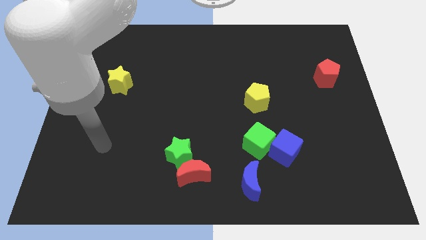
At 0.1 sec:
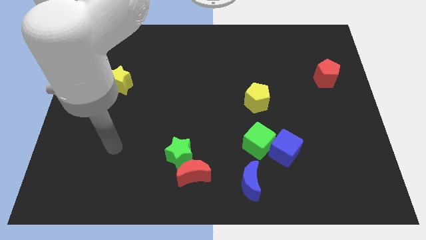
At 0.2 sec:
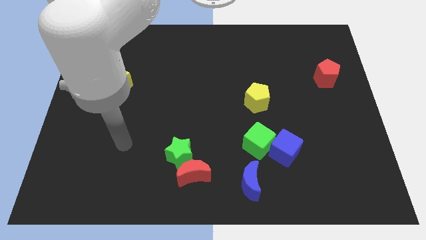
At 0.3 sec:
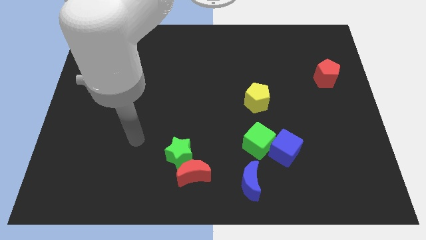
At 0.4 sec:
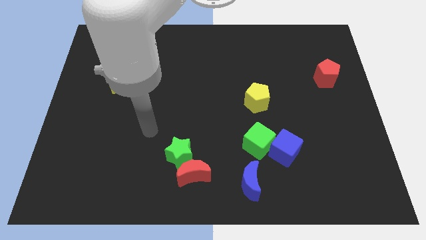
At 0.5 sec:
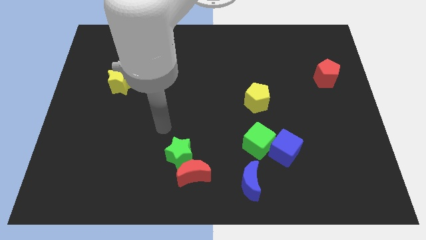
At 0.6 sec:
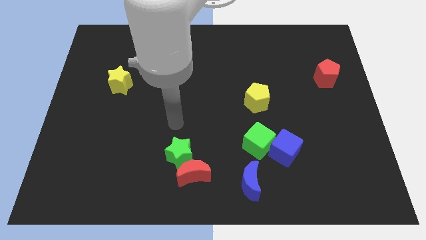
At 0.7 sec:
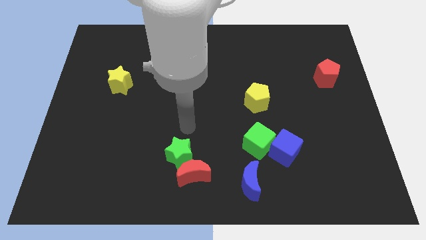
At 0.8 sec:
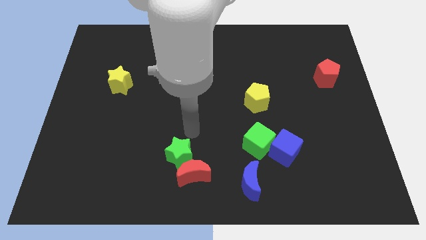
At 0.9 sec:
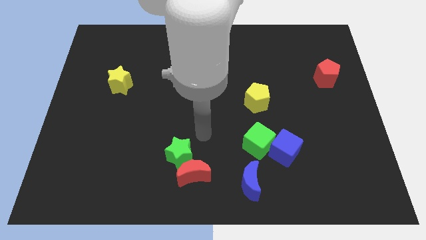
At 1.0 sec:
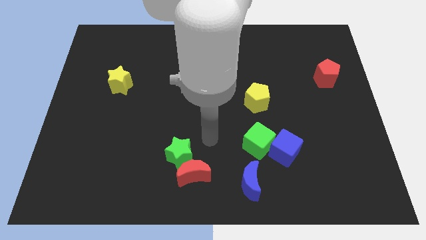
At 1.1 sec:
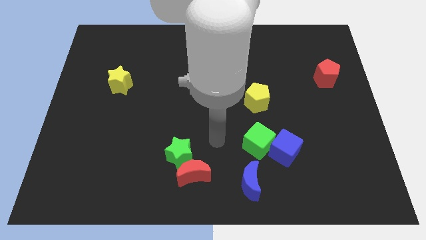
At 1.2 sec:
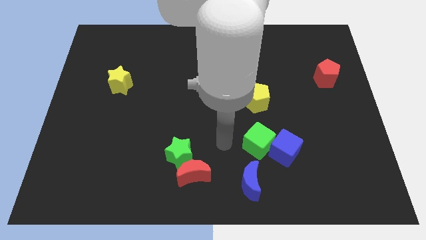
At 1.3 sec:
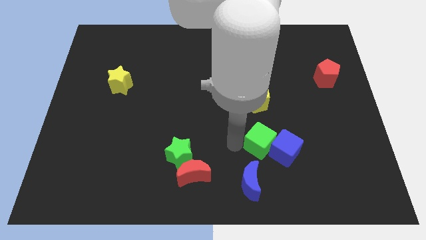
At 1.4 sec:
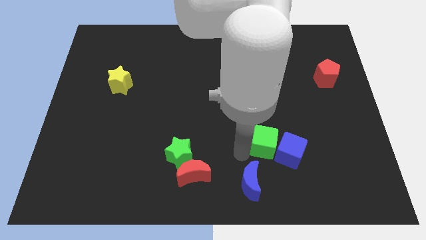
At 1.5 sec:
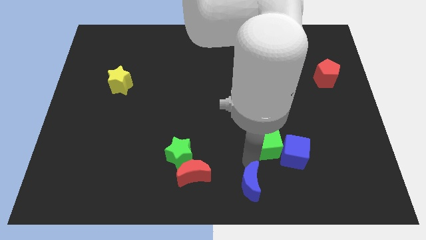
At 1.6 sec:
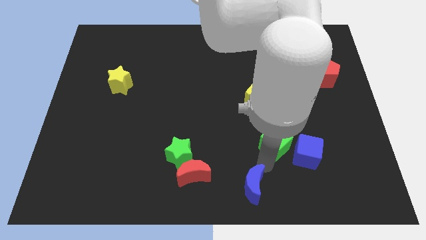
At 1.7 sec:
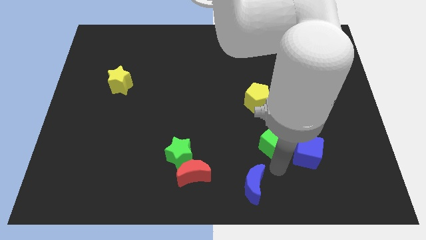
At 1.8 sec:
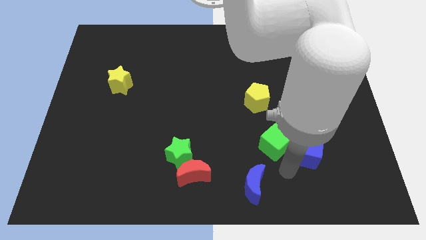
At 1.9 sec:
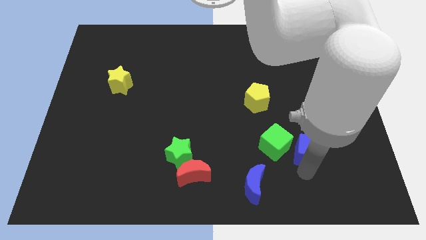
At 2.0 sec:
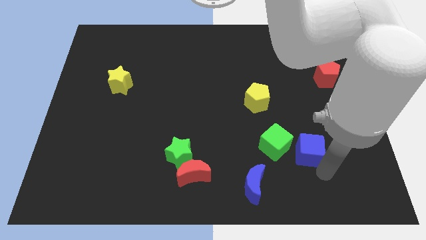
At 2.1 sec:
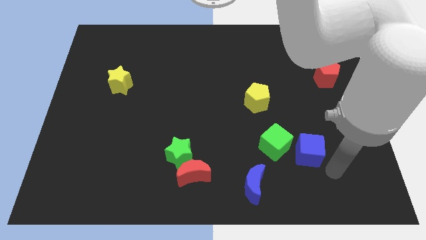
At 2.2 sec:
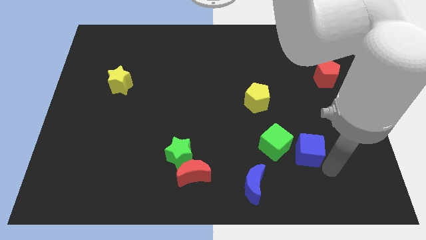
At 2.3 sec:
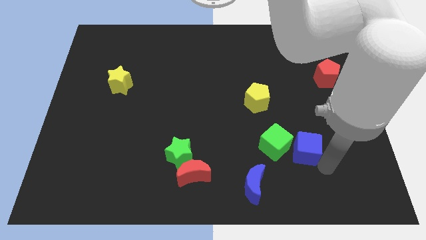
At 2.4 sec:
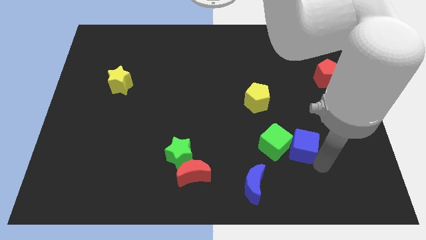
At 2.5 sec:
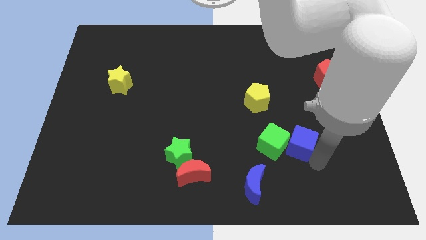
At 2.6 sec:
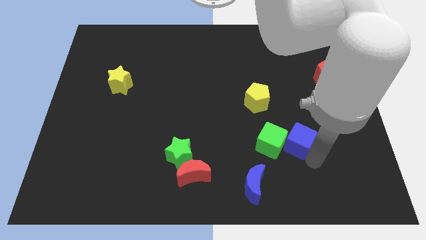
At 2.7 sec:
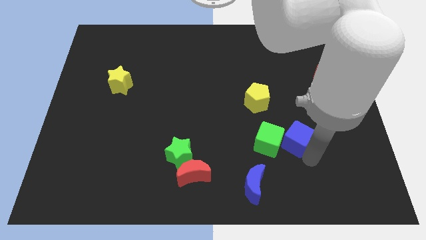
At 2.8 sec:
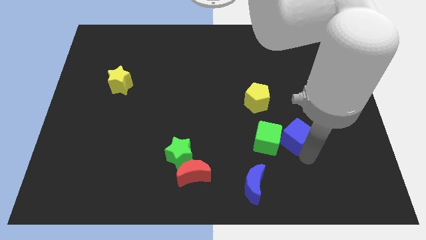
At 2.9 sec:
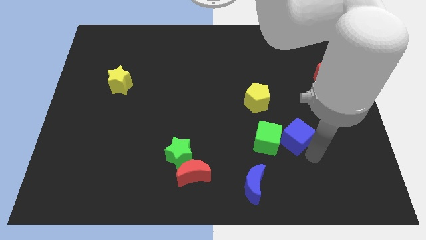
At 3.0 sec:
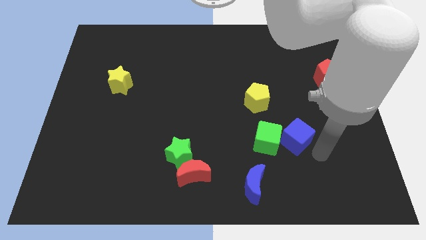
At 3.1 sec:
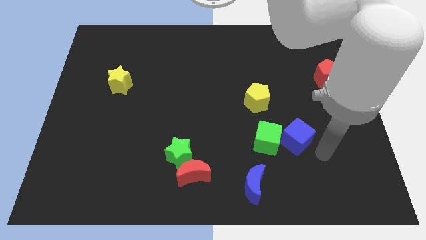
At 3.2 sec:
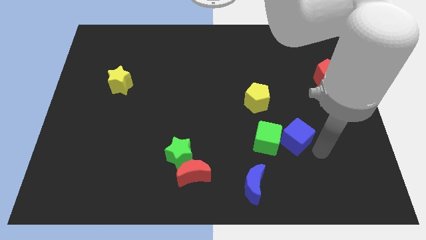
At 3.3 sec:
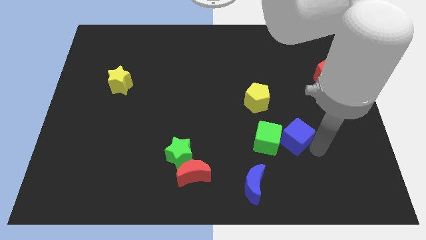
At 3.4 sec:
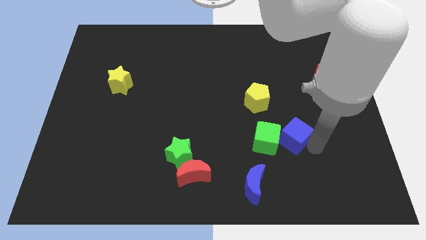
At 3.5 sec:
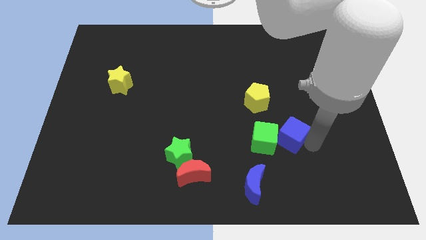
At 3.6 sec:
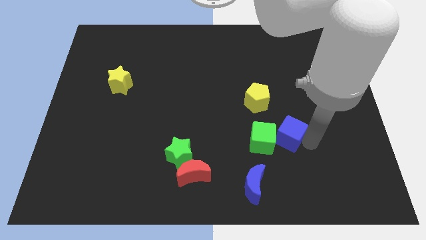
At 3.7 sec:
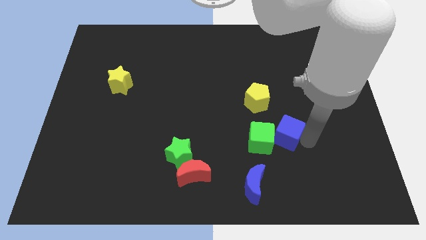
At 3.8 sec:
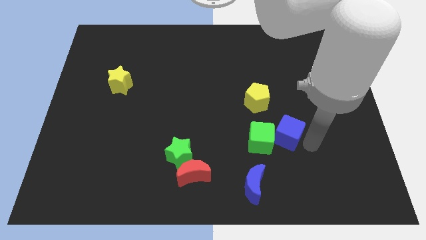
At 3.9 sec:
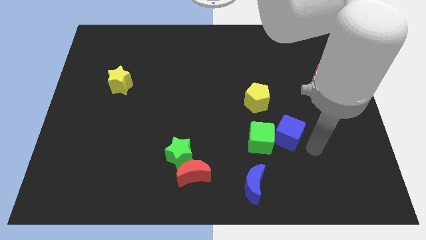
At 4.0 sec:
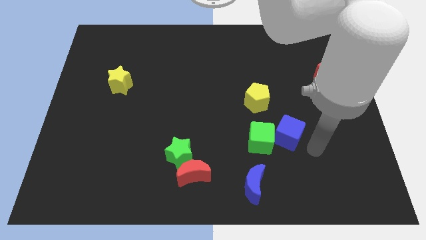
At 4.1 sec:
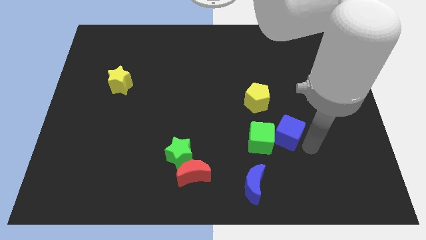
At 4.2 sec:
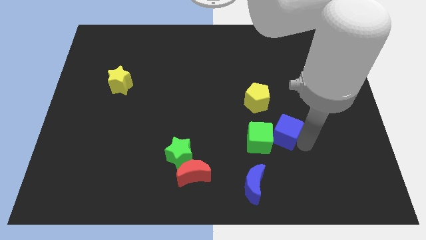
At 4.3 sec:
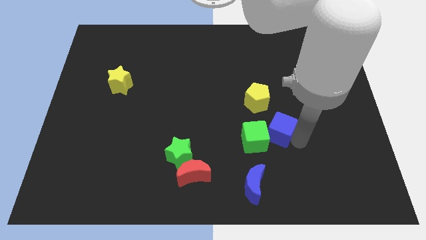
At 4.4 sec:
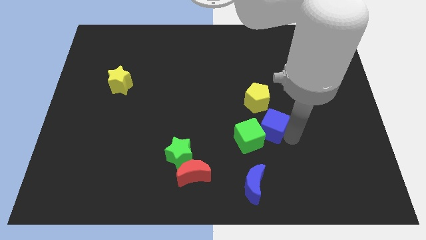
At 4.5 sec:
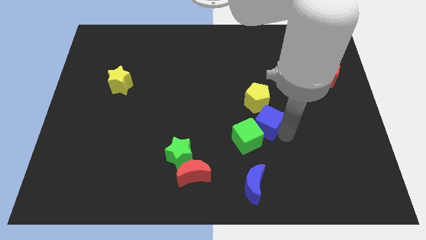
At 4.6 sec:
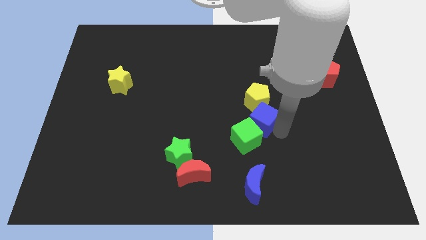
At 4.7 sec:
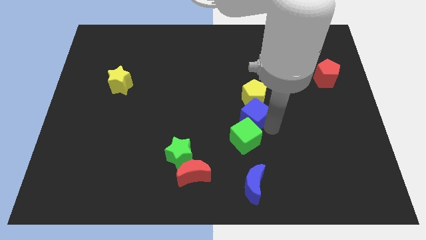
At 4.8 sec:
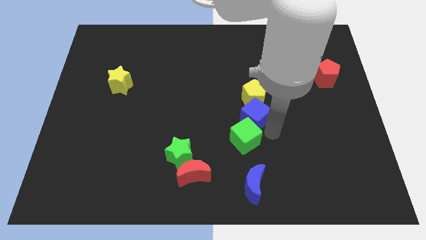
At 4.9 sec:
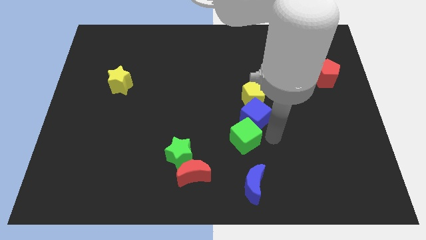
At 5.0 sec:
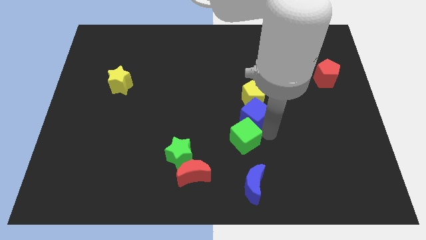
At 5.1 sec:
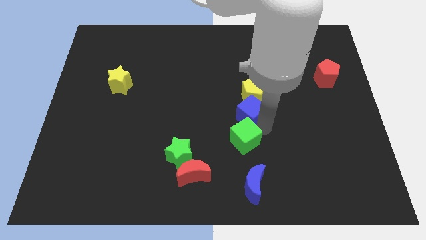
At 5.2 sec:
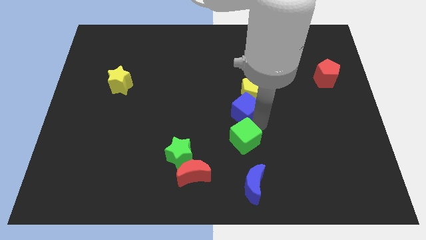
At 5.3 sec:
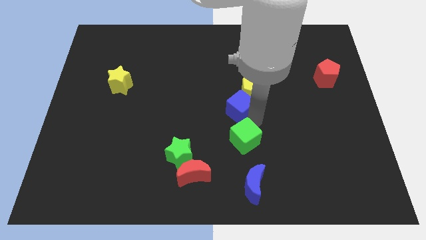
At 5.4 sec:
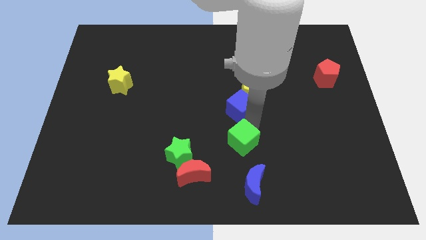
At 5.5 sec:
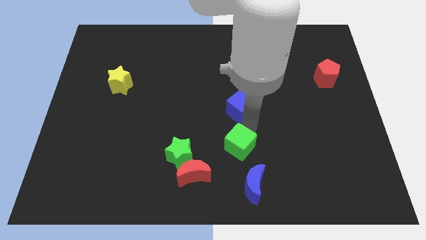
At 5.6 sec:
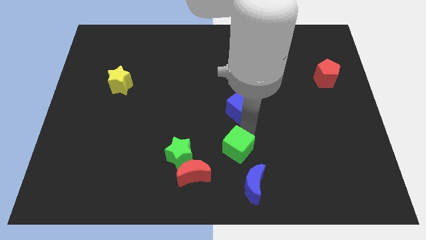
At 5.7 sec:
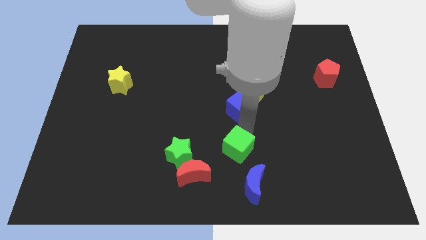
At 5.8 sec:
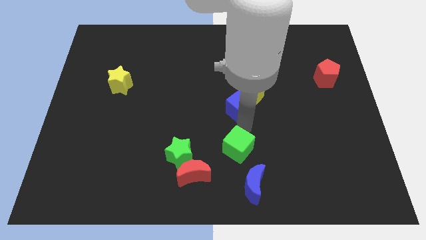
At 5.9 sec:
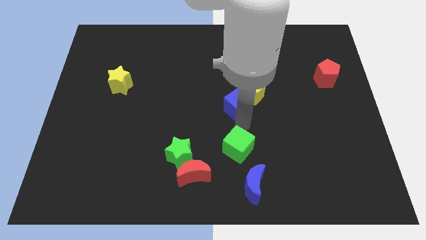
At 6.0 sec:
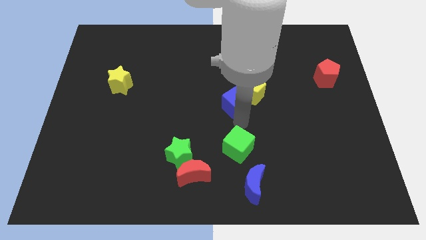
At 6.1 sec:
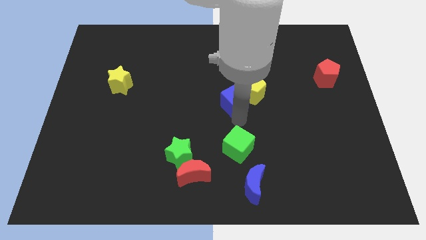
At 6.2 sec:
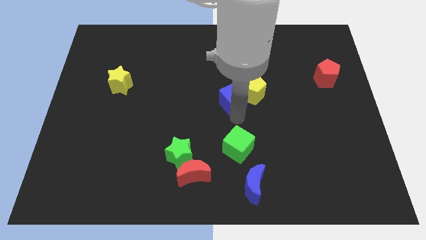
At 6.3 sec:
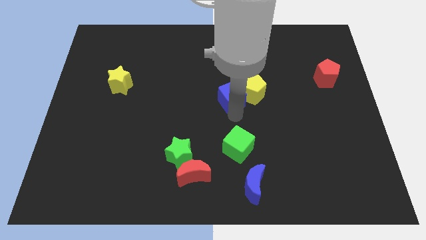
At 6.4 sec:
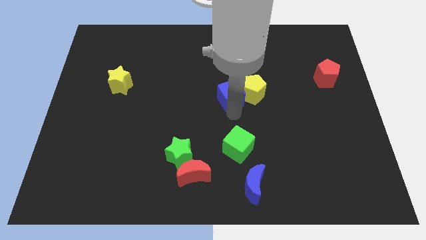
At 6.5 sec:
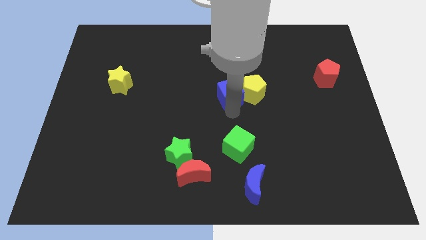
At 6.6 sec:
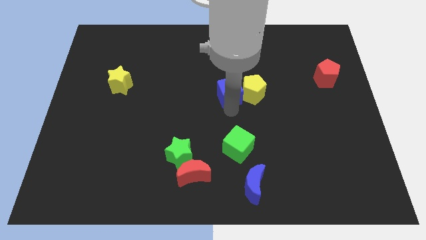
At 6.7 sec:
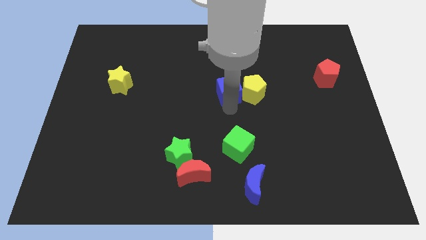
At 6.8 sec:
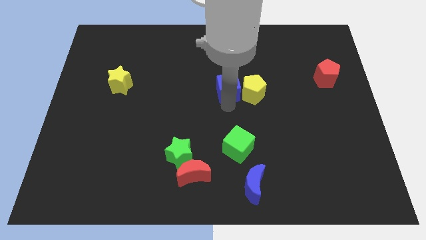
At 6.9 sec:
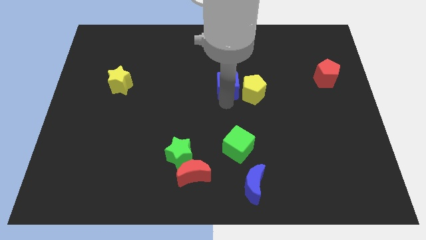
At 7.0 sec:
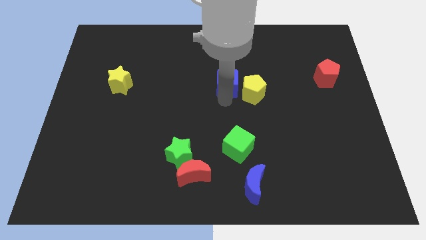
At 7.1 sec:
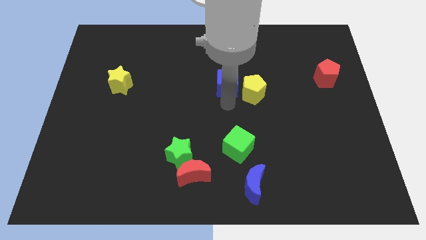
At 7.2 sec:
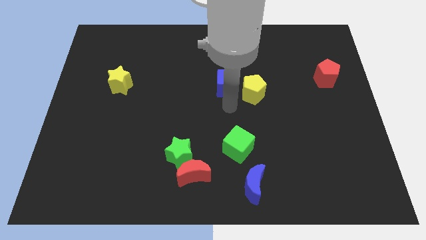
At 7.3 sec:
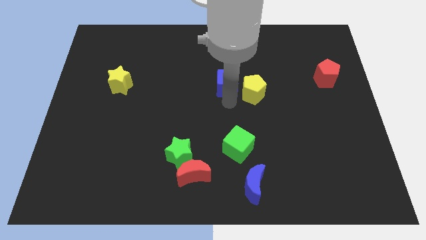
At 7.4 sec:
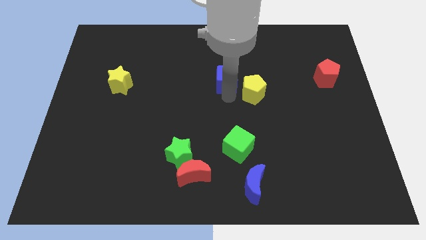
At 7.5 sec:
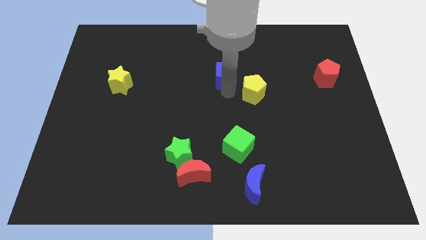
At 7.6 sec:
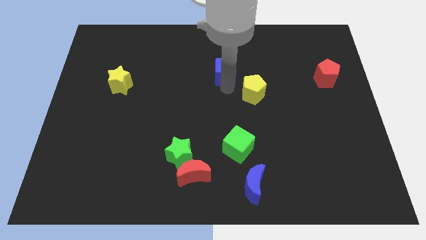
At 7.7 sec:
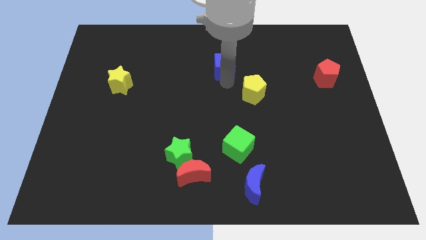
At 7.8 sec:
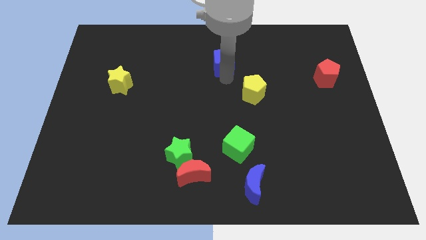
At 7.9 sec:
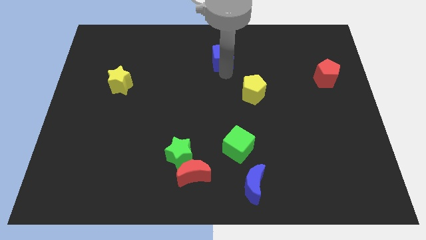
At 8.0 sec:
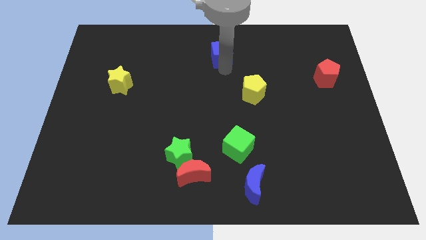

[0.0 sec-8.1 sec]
push the blue cube to the top
